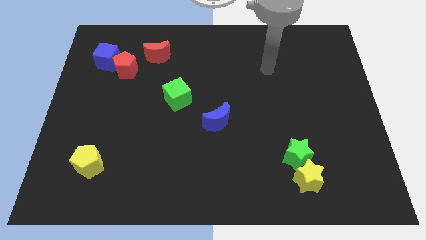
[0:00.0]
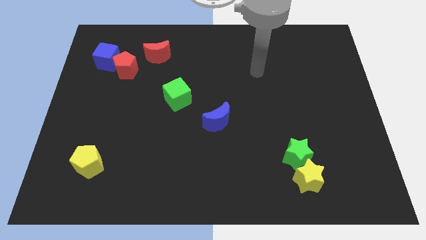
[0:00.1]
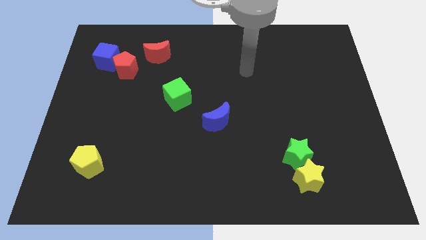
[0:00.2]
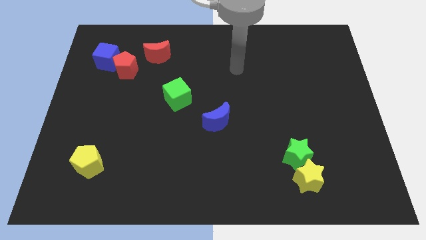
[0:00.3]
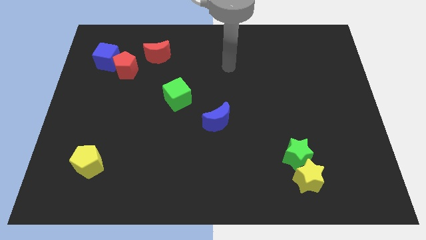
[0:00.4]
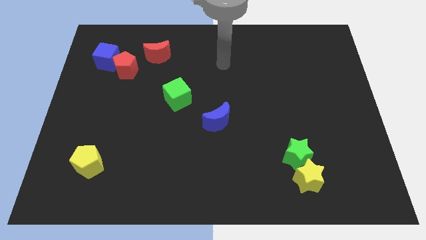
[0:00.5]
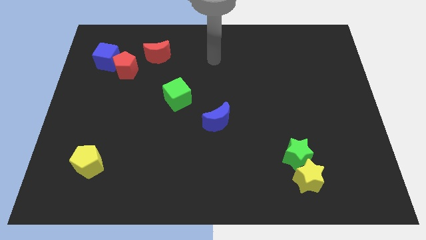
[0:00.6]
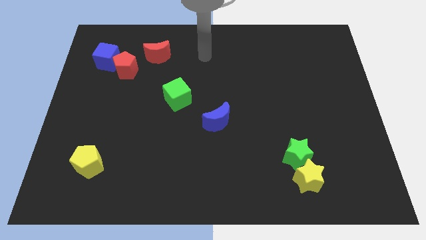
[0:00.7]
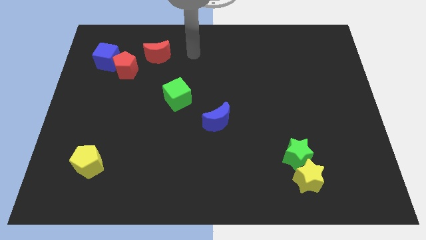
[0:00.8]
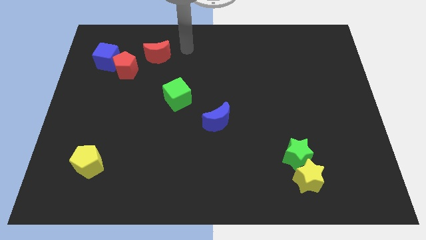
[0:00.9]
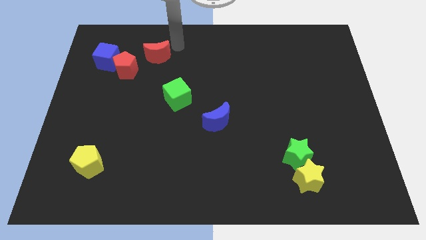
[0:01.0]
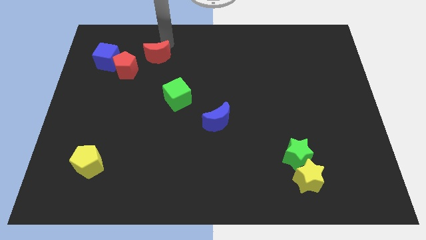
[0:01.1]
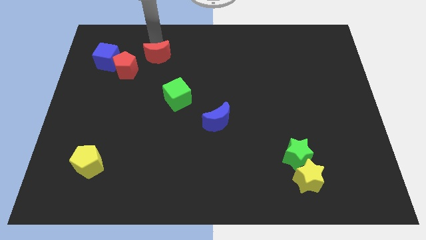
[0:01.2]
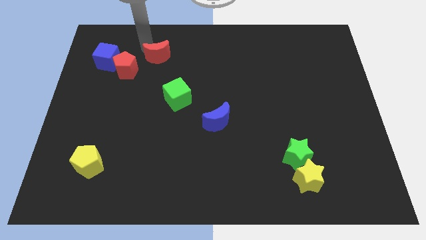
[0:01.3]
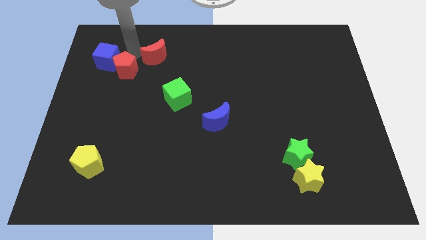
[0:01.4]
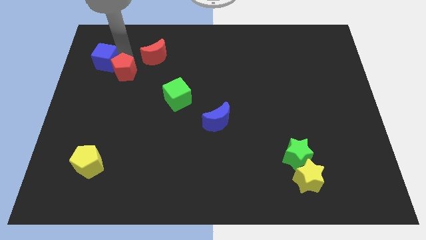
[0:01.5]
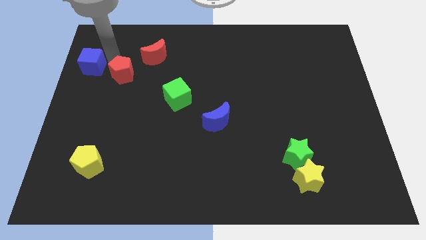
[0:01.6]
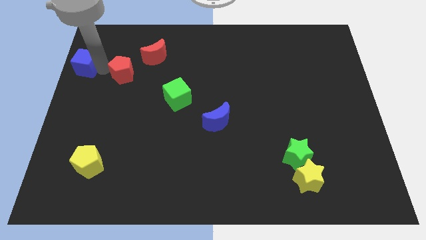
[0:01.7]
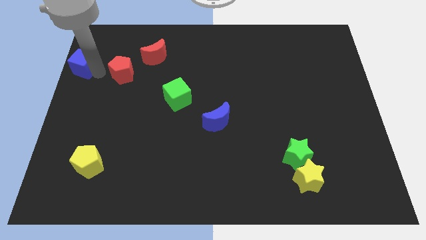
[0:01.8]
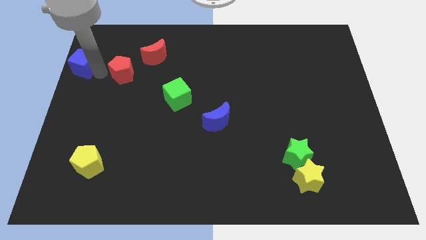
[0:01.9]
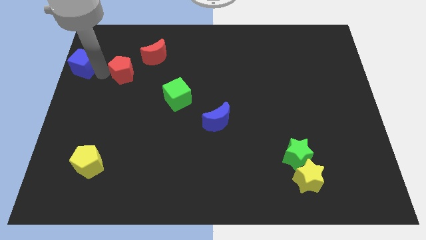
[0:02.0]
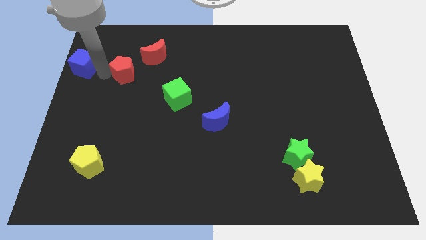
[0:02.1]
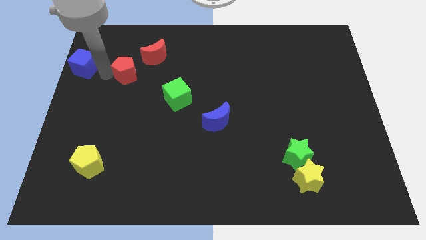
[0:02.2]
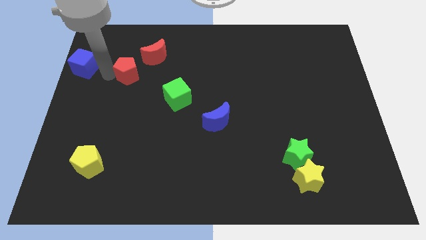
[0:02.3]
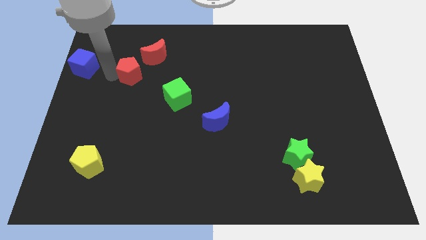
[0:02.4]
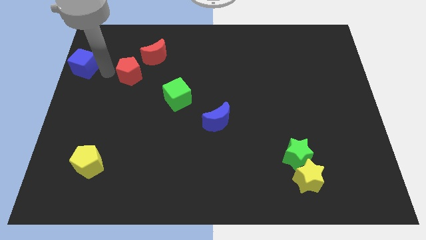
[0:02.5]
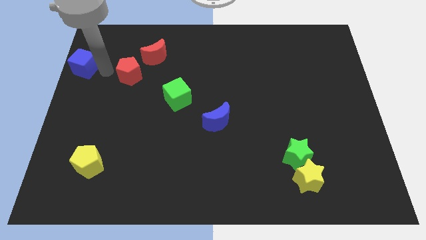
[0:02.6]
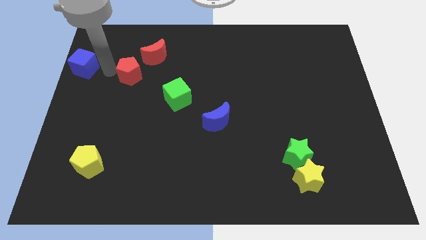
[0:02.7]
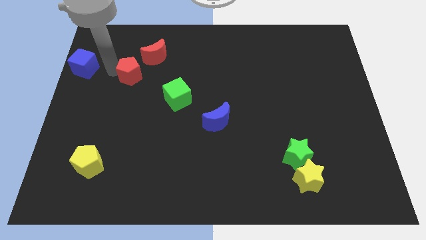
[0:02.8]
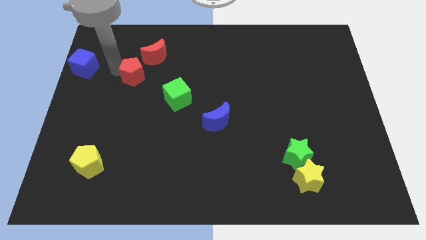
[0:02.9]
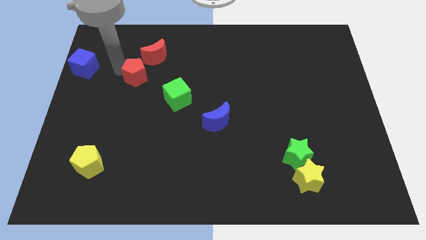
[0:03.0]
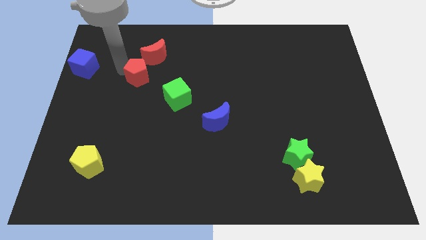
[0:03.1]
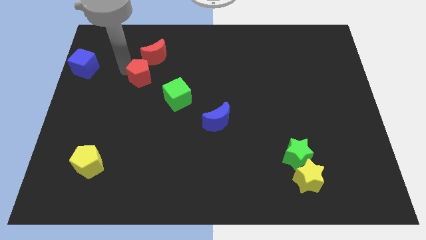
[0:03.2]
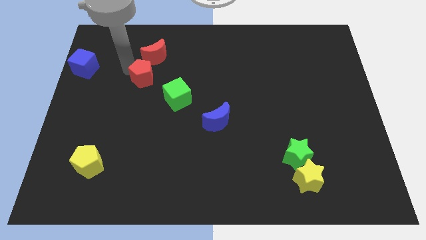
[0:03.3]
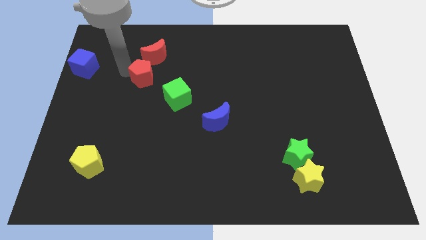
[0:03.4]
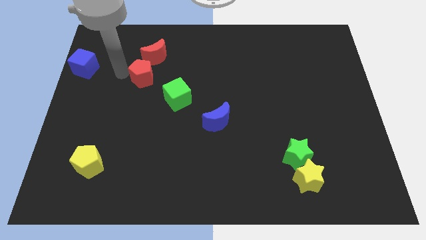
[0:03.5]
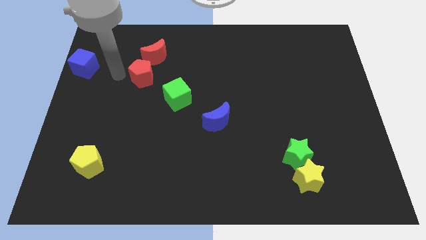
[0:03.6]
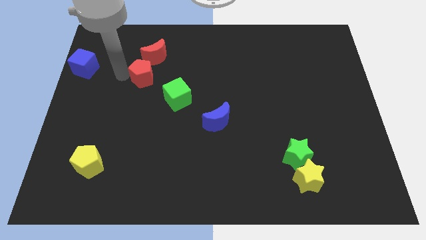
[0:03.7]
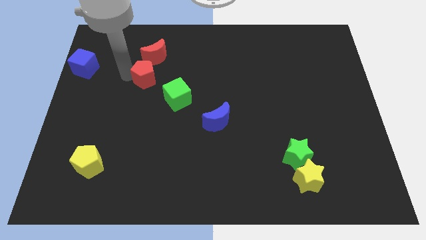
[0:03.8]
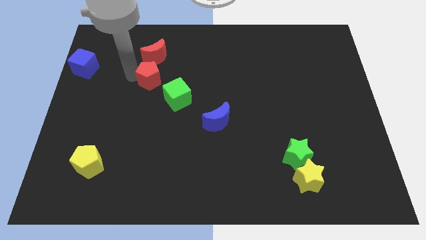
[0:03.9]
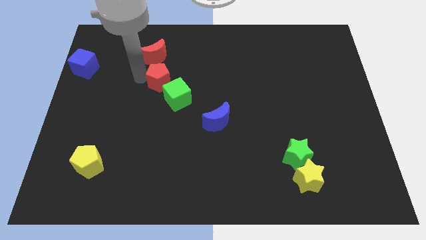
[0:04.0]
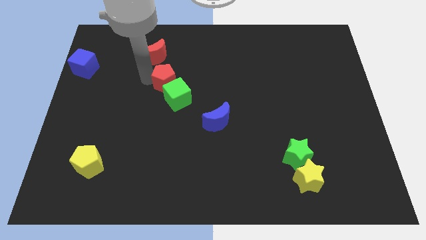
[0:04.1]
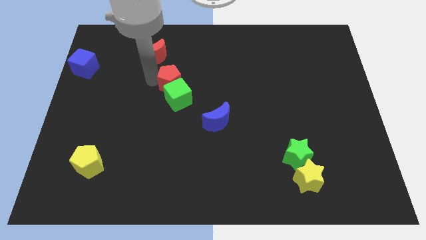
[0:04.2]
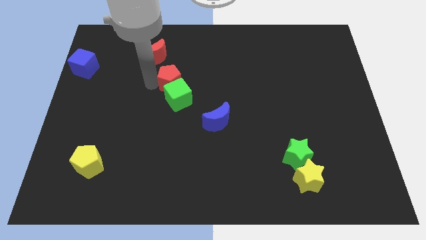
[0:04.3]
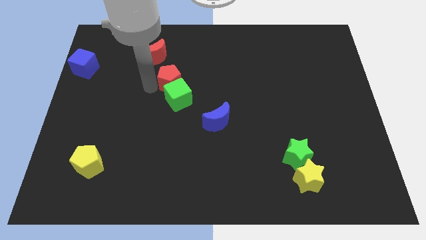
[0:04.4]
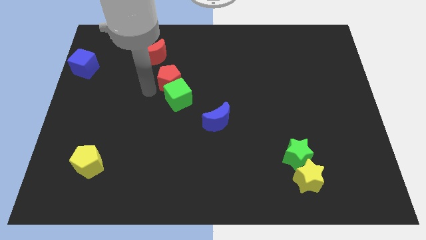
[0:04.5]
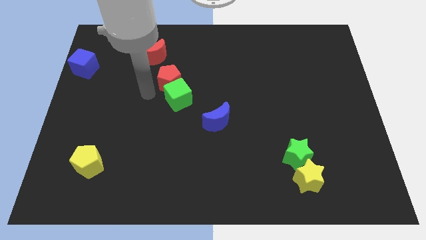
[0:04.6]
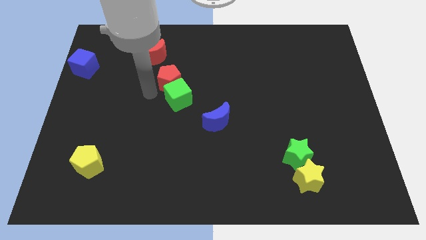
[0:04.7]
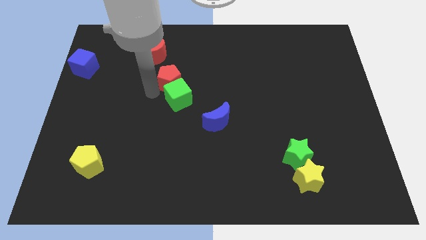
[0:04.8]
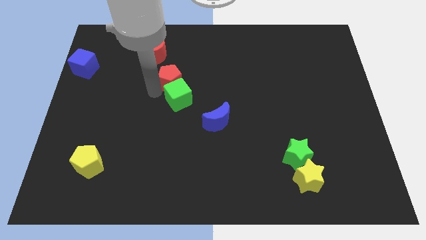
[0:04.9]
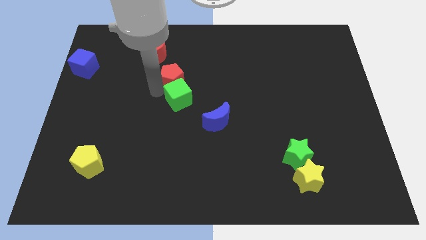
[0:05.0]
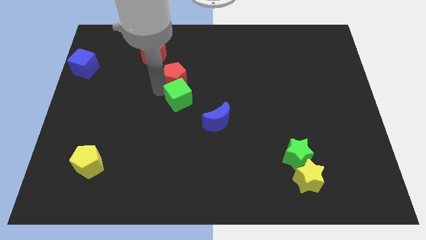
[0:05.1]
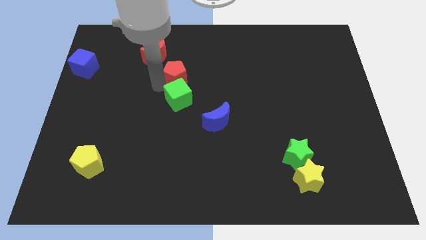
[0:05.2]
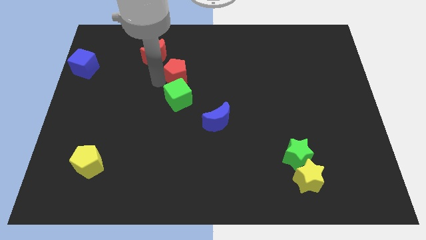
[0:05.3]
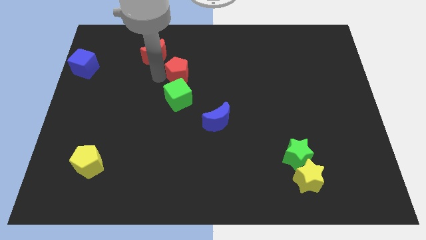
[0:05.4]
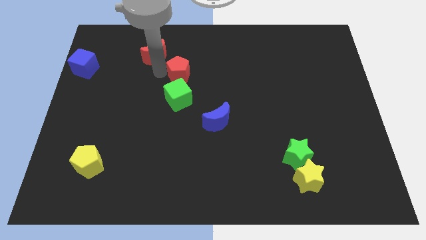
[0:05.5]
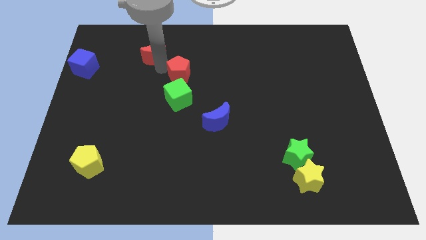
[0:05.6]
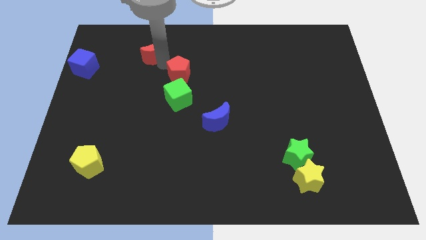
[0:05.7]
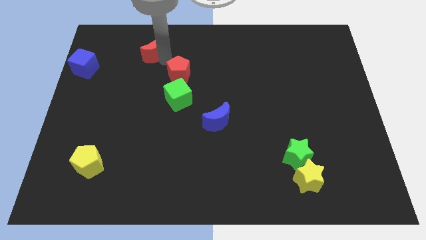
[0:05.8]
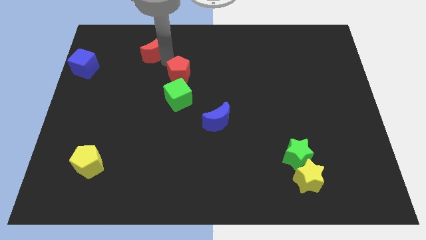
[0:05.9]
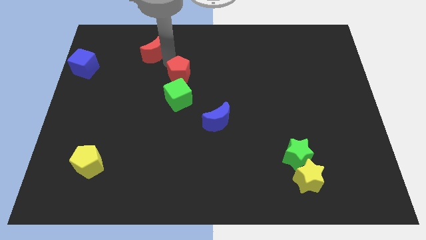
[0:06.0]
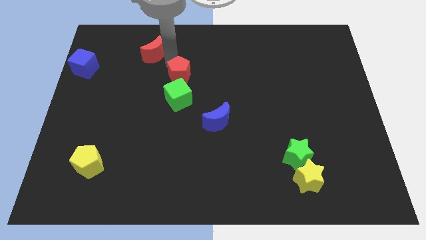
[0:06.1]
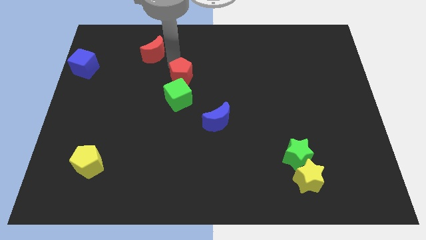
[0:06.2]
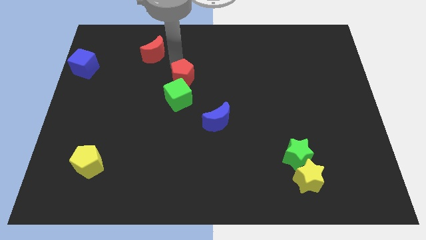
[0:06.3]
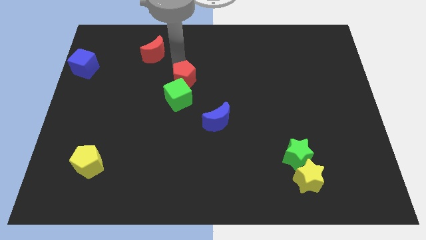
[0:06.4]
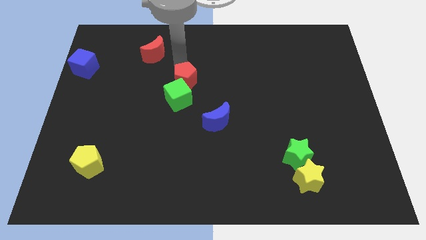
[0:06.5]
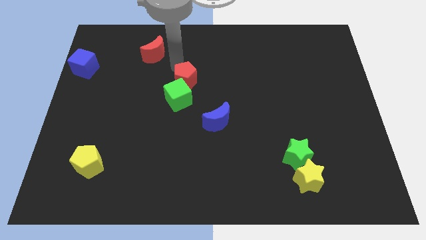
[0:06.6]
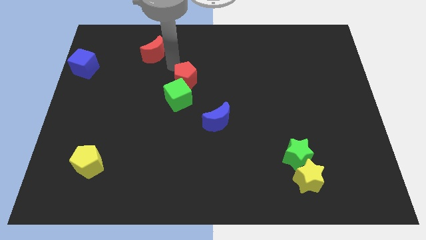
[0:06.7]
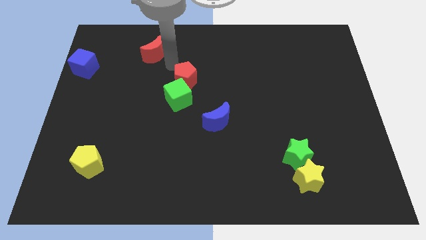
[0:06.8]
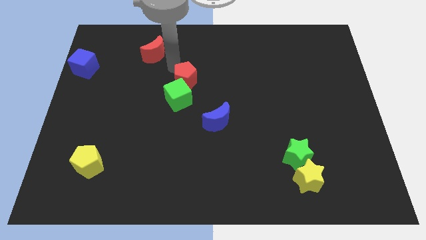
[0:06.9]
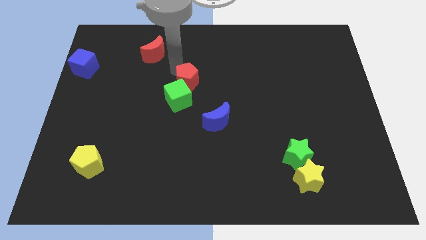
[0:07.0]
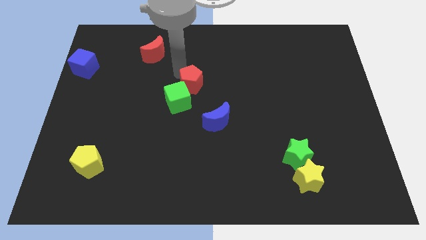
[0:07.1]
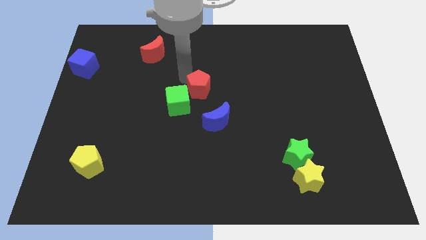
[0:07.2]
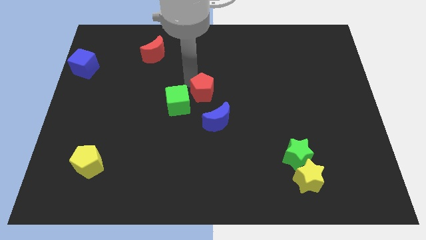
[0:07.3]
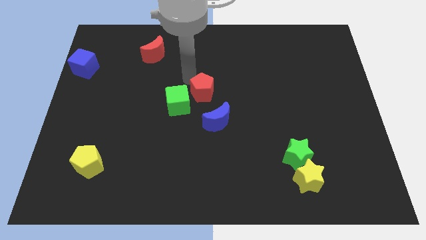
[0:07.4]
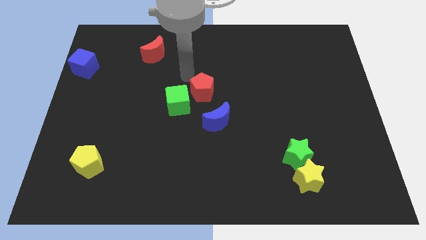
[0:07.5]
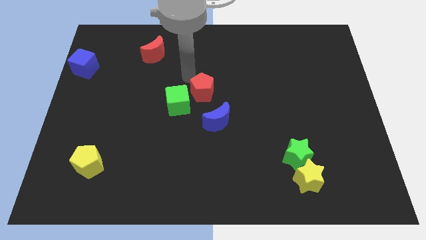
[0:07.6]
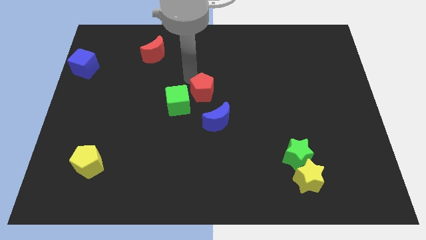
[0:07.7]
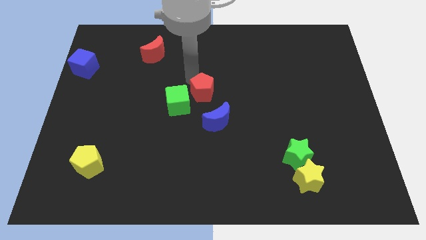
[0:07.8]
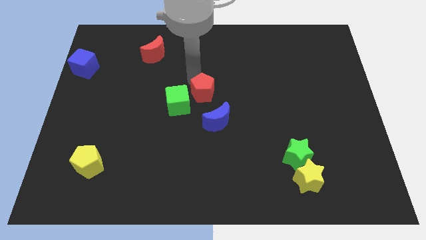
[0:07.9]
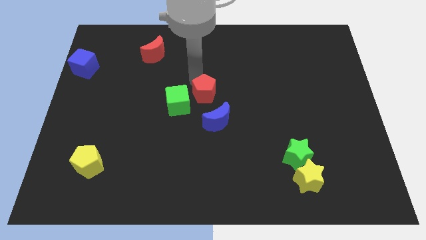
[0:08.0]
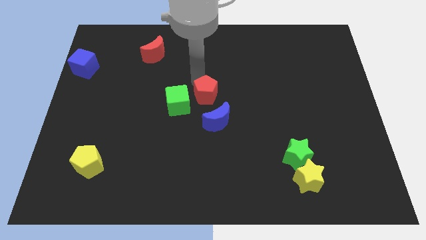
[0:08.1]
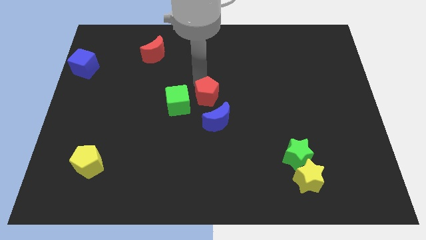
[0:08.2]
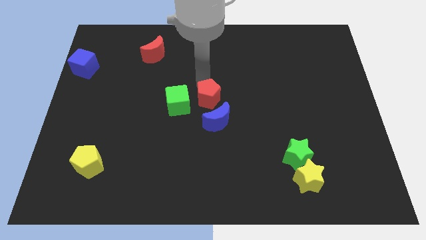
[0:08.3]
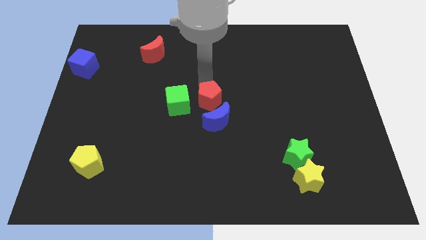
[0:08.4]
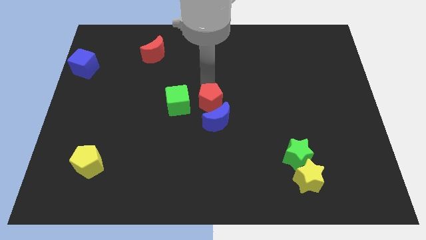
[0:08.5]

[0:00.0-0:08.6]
slide the red pentagon next to the blue moon
